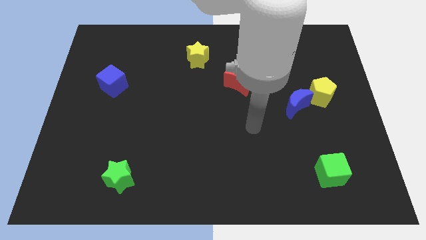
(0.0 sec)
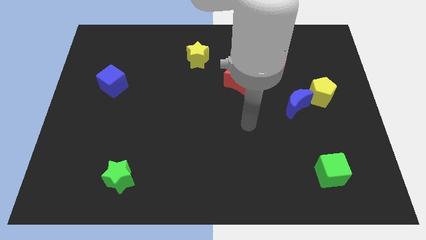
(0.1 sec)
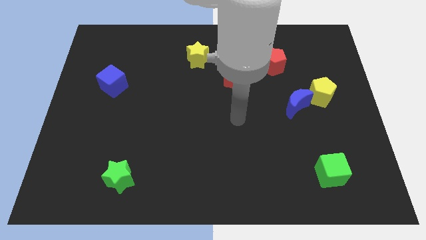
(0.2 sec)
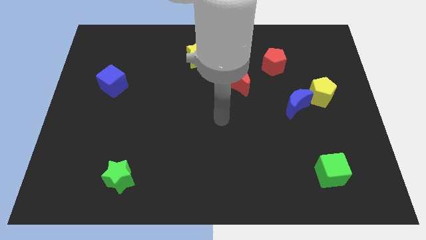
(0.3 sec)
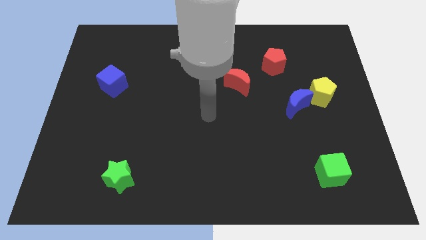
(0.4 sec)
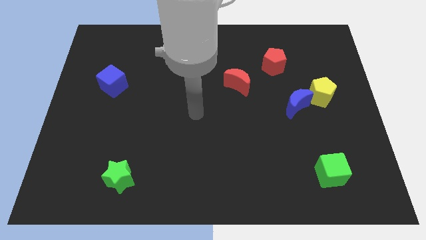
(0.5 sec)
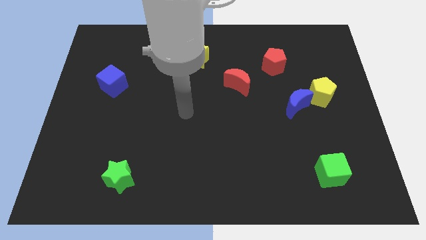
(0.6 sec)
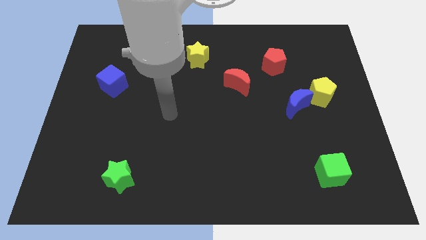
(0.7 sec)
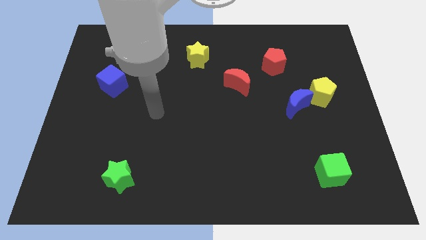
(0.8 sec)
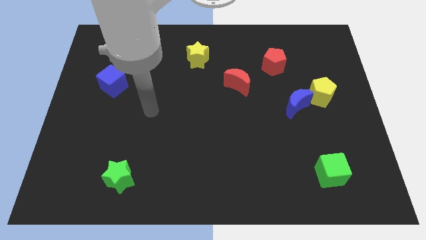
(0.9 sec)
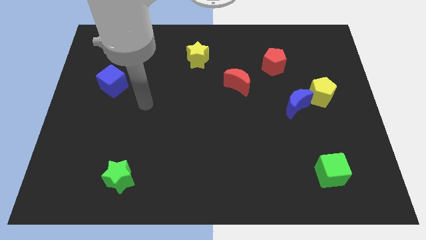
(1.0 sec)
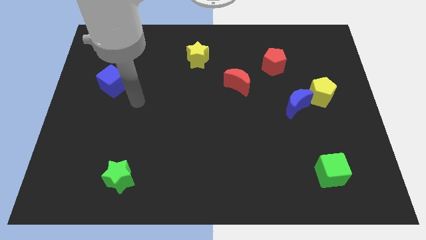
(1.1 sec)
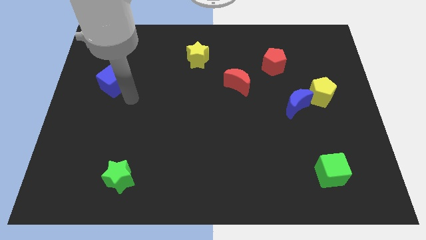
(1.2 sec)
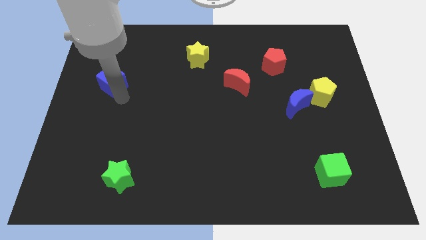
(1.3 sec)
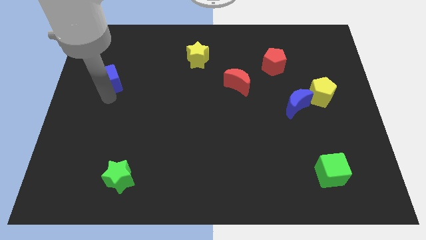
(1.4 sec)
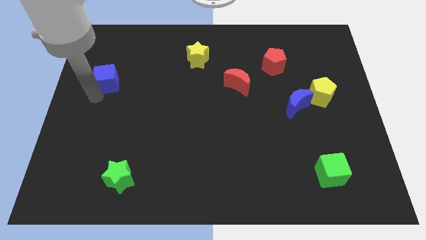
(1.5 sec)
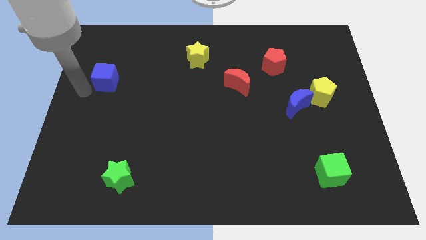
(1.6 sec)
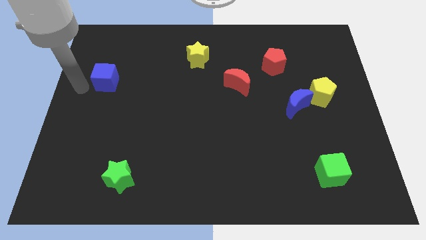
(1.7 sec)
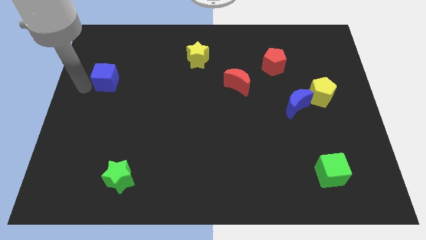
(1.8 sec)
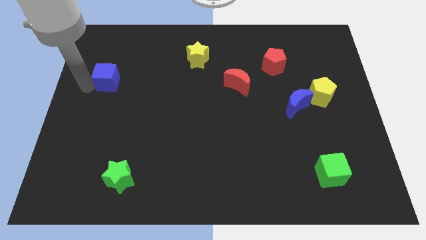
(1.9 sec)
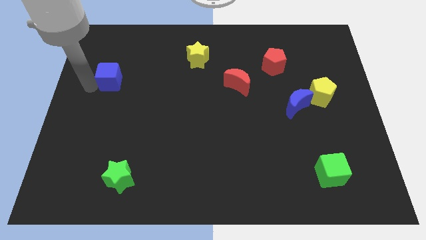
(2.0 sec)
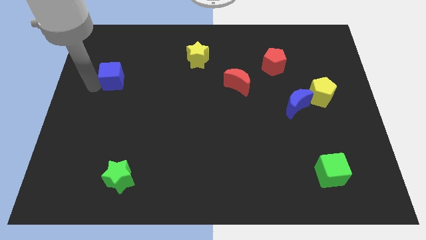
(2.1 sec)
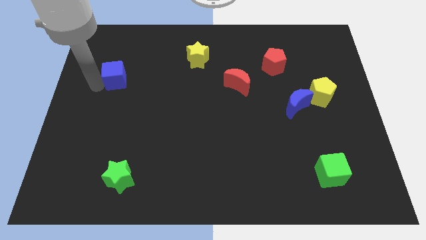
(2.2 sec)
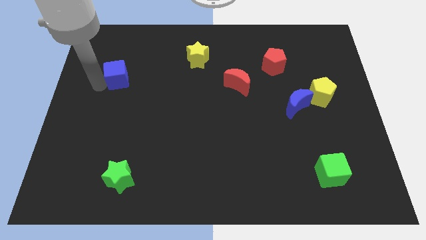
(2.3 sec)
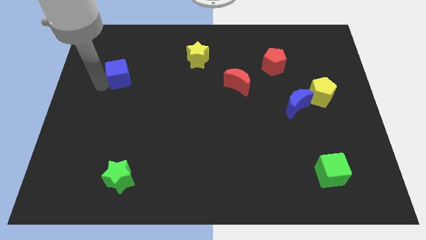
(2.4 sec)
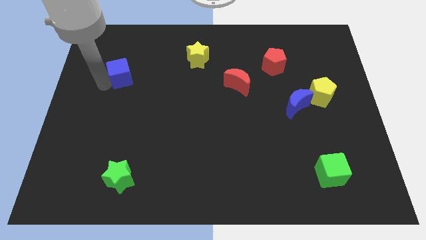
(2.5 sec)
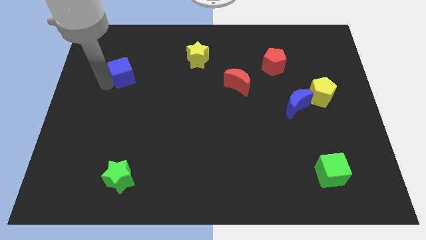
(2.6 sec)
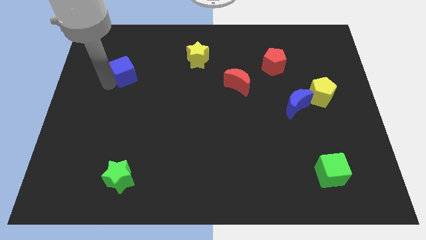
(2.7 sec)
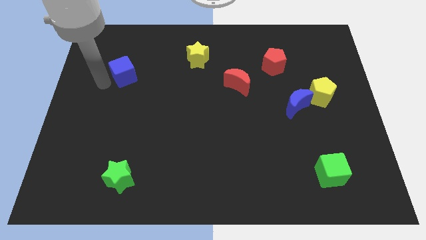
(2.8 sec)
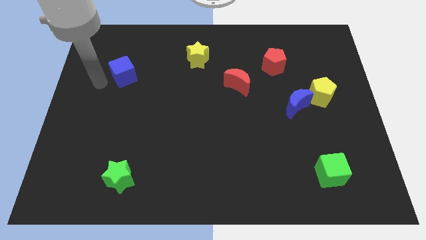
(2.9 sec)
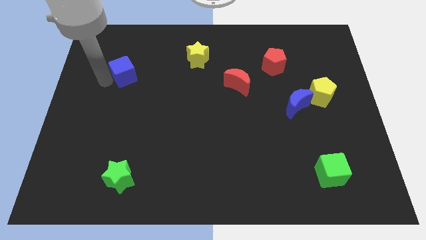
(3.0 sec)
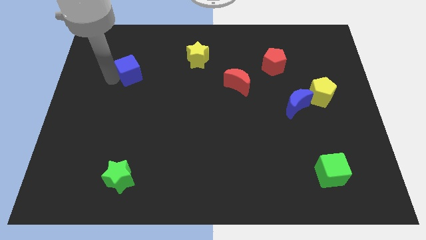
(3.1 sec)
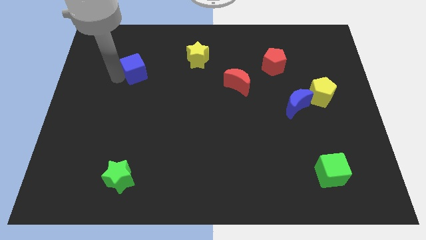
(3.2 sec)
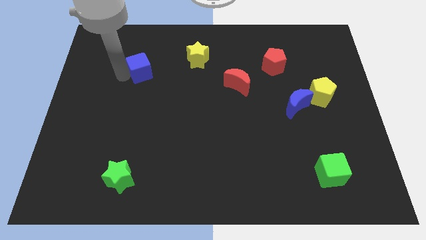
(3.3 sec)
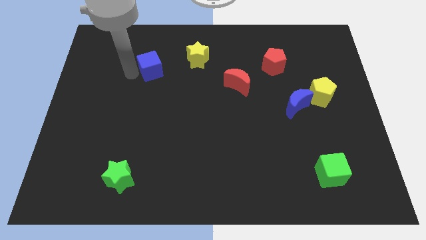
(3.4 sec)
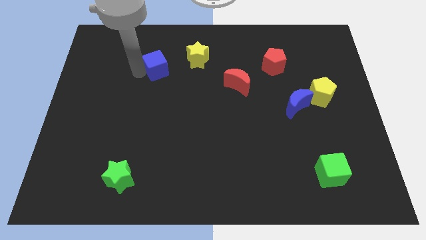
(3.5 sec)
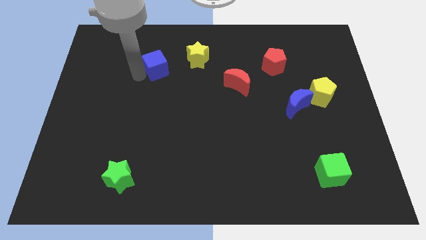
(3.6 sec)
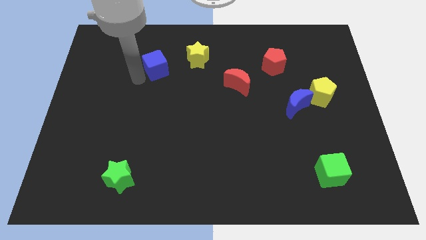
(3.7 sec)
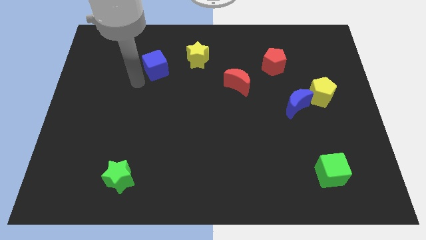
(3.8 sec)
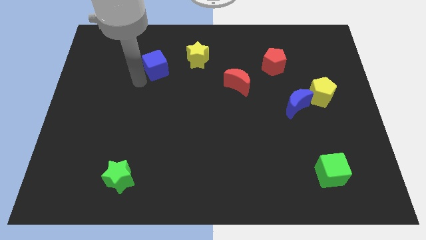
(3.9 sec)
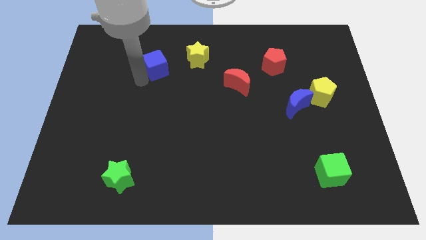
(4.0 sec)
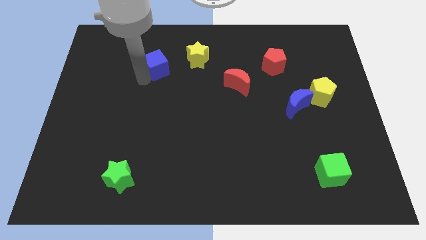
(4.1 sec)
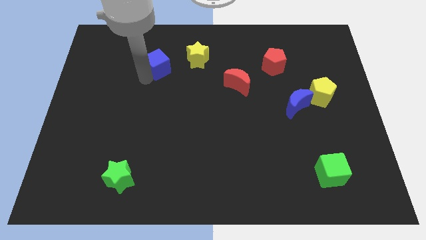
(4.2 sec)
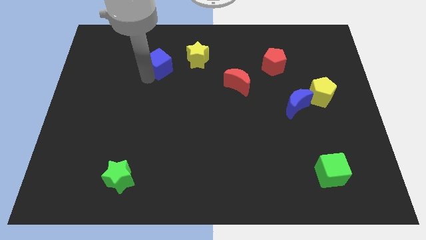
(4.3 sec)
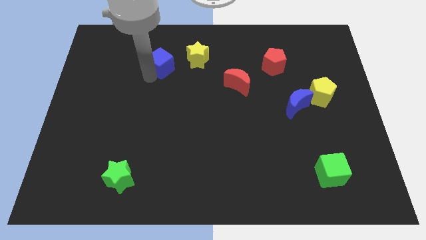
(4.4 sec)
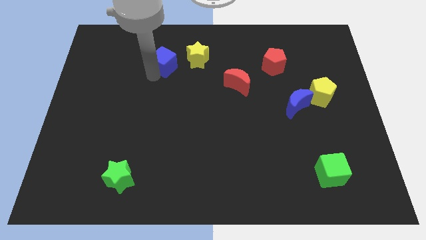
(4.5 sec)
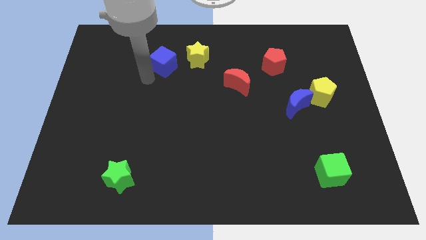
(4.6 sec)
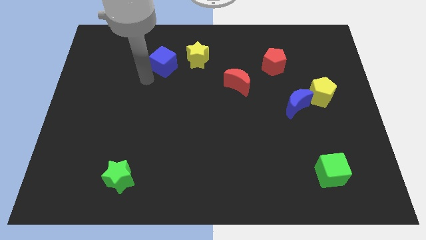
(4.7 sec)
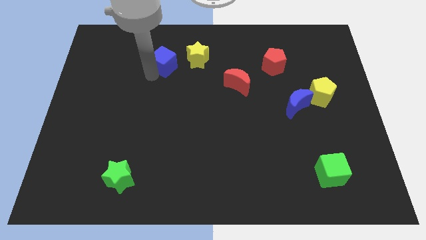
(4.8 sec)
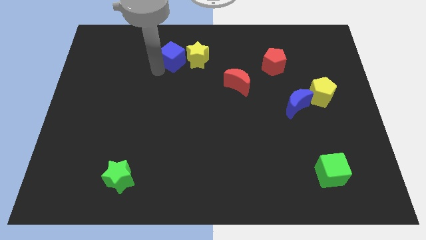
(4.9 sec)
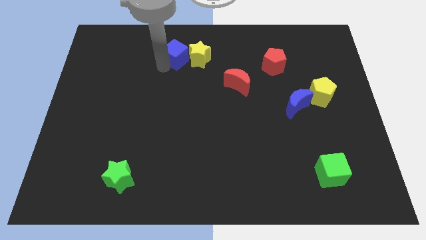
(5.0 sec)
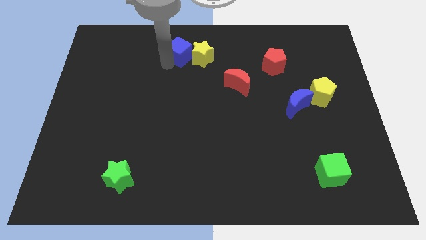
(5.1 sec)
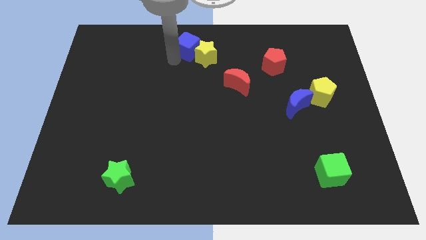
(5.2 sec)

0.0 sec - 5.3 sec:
move the blue cube to the top side

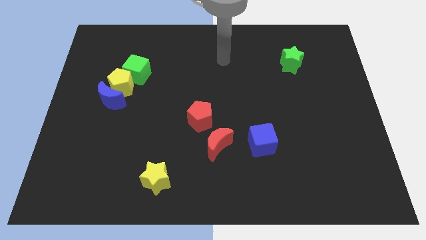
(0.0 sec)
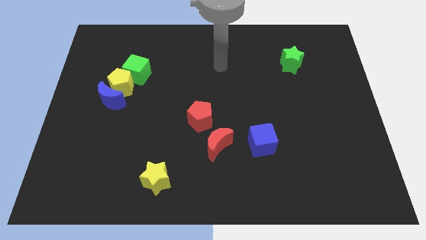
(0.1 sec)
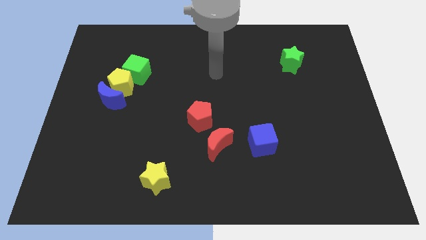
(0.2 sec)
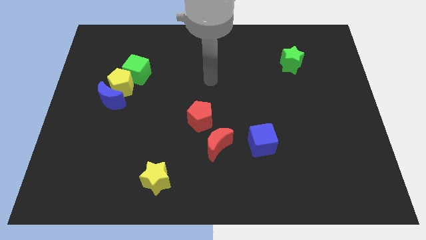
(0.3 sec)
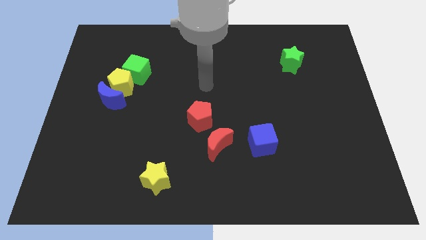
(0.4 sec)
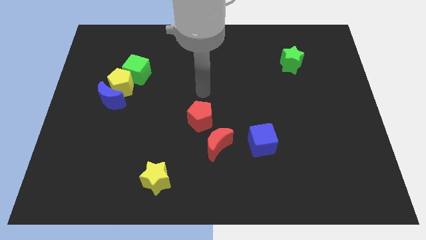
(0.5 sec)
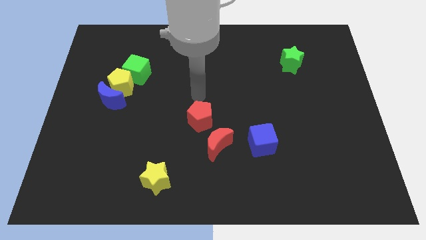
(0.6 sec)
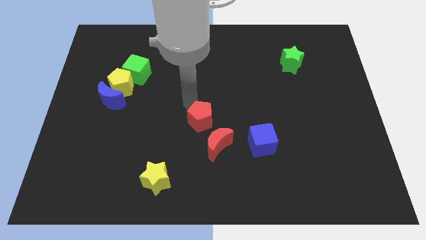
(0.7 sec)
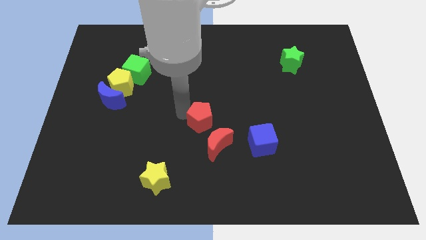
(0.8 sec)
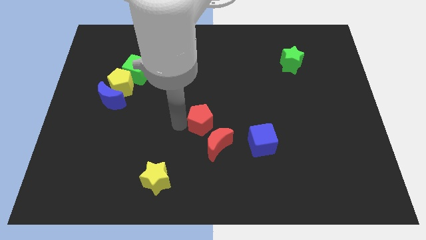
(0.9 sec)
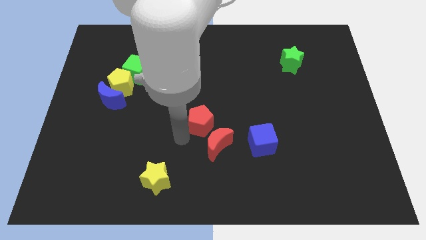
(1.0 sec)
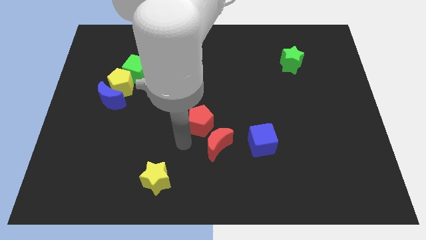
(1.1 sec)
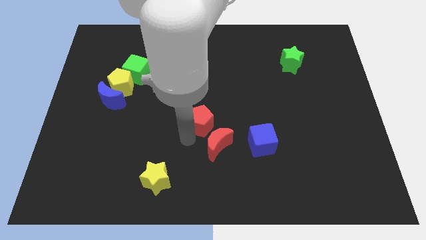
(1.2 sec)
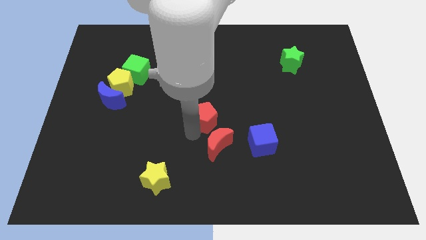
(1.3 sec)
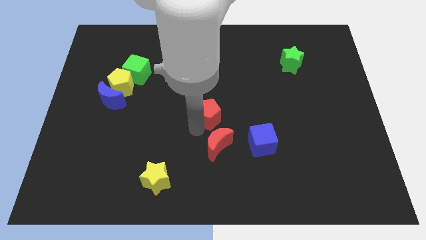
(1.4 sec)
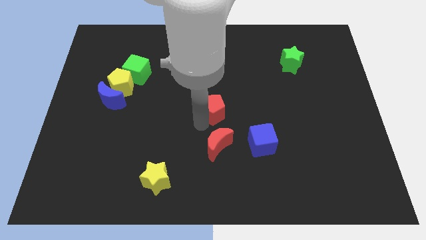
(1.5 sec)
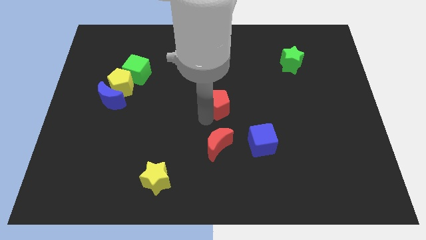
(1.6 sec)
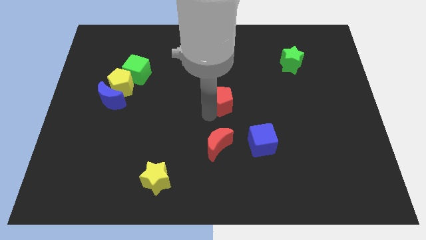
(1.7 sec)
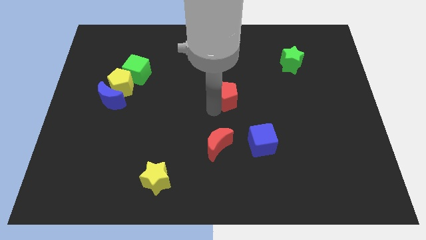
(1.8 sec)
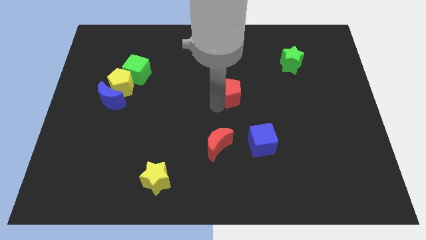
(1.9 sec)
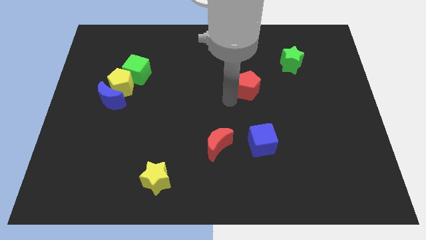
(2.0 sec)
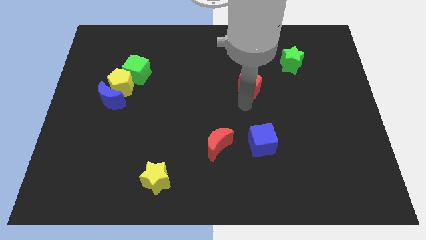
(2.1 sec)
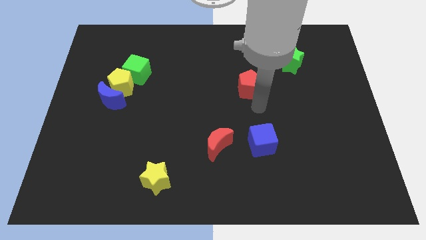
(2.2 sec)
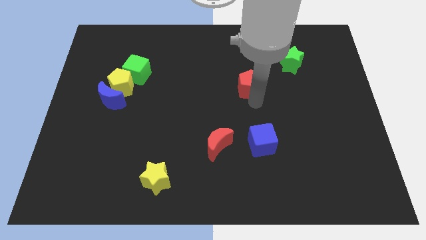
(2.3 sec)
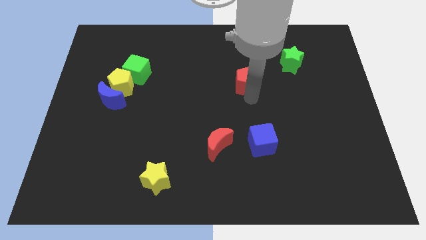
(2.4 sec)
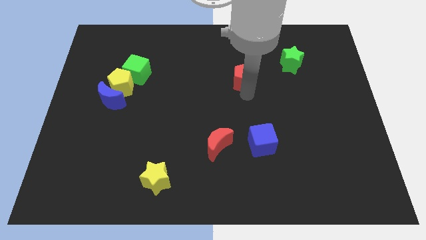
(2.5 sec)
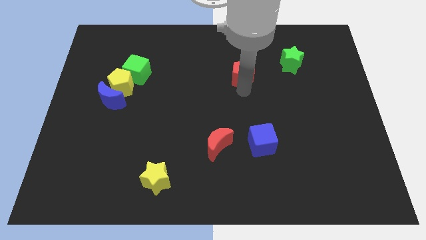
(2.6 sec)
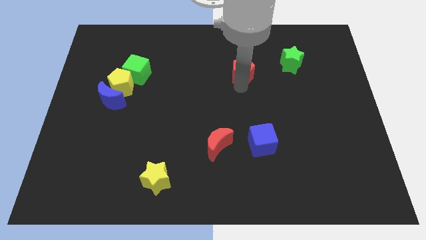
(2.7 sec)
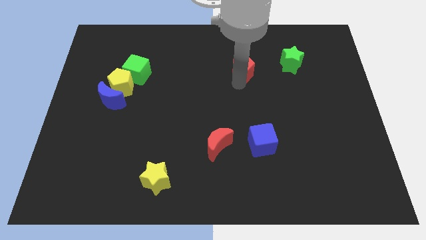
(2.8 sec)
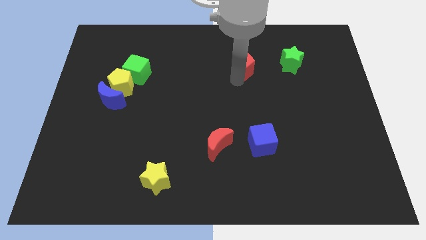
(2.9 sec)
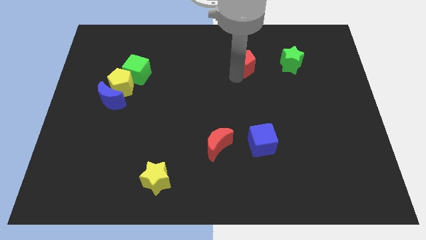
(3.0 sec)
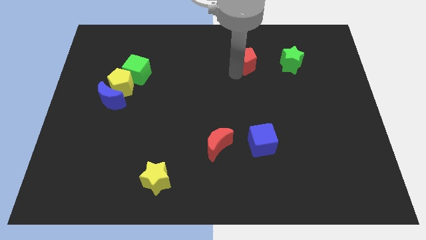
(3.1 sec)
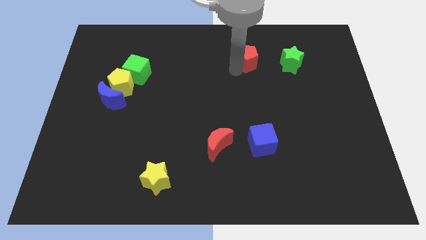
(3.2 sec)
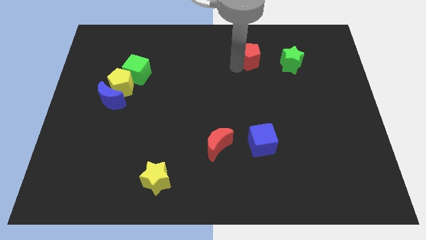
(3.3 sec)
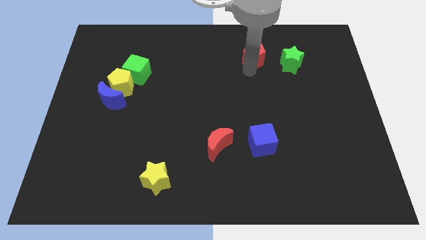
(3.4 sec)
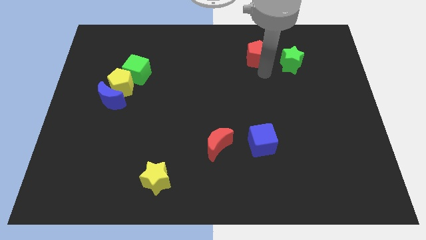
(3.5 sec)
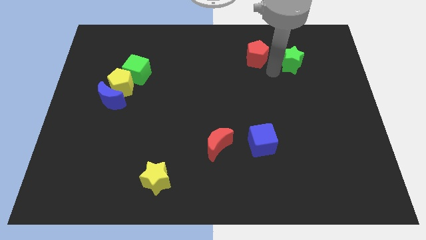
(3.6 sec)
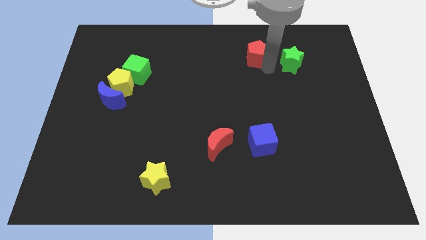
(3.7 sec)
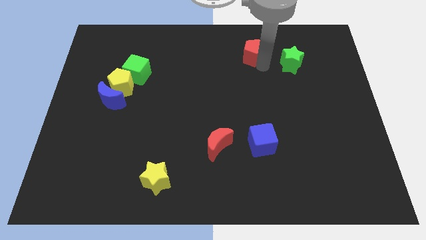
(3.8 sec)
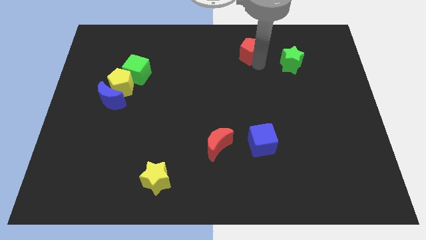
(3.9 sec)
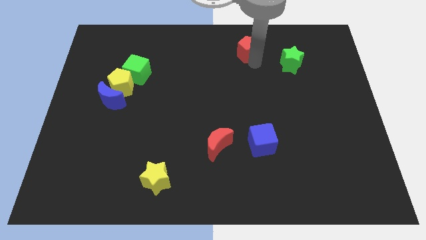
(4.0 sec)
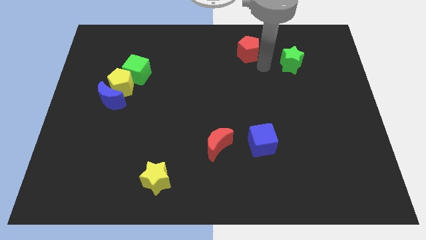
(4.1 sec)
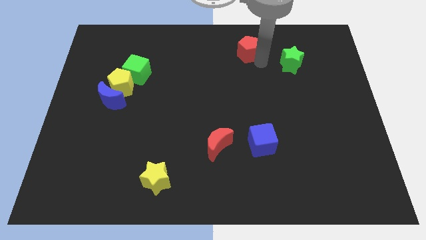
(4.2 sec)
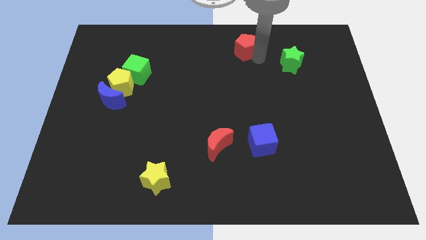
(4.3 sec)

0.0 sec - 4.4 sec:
move the red pentagon to the towards your base
